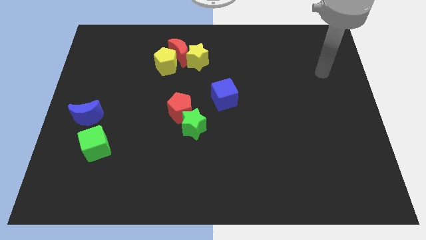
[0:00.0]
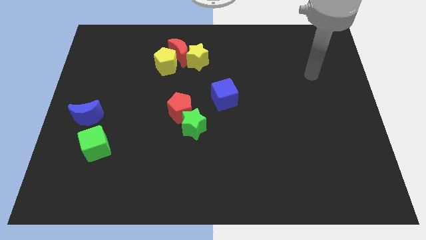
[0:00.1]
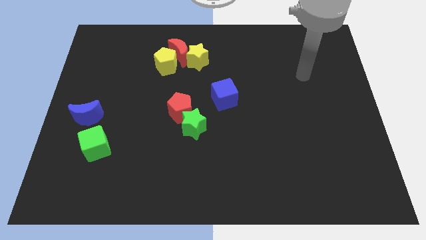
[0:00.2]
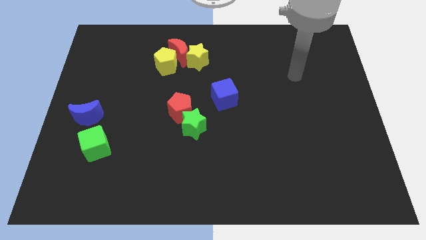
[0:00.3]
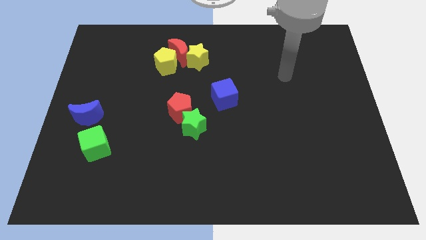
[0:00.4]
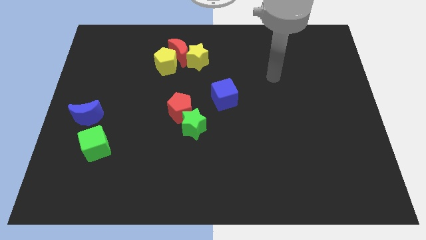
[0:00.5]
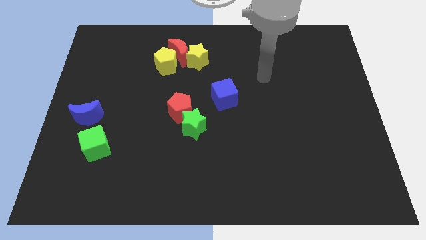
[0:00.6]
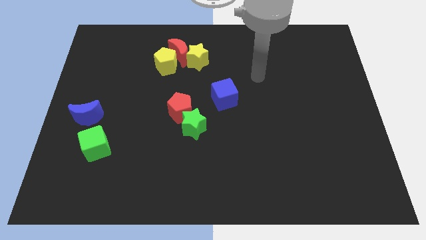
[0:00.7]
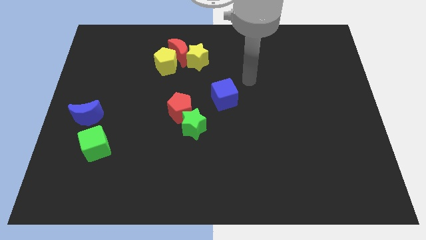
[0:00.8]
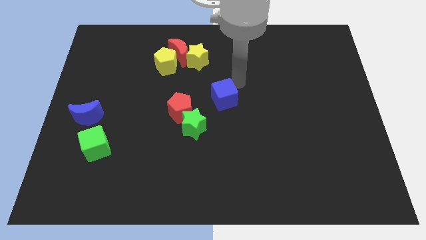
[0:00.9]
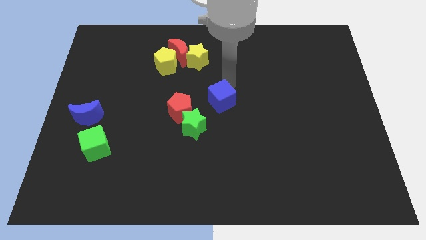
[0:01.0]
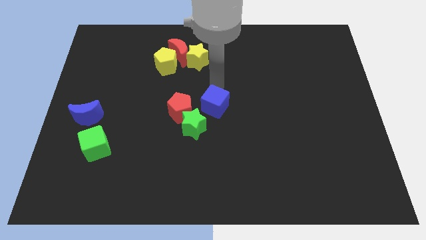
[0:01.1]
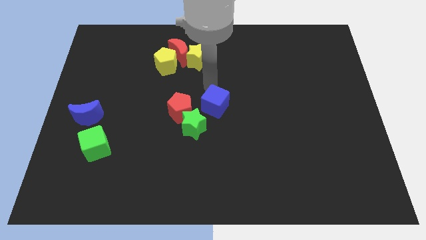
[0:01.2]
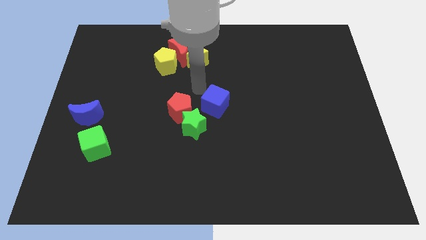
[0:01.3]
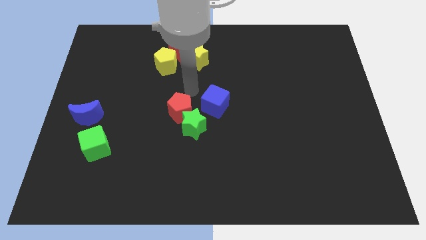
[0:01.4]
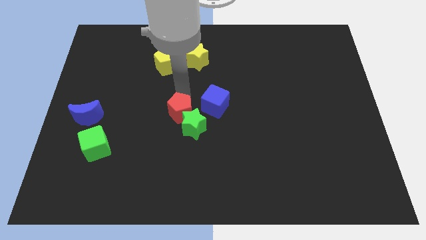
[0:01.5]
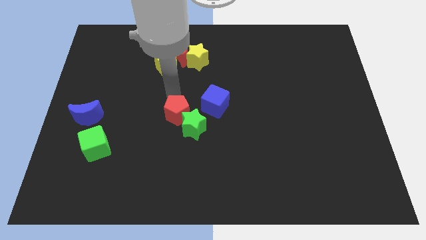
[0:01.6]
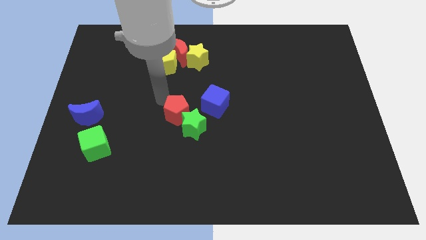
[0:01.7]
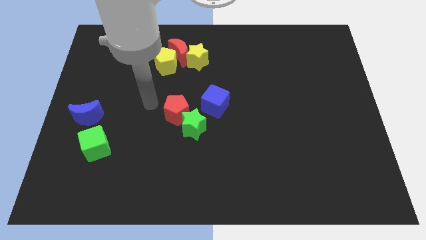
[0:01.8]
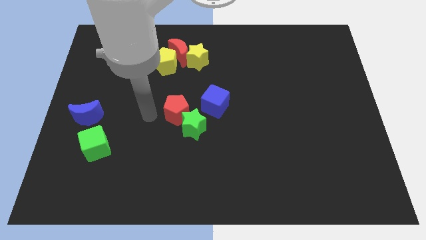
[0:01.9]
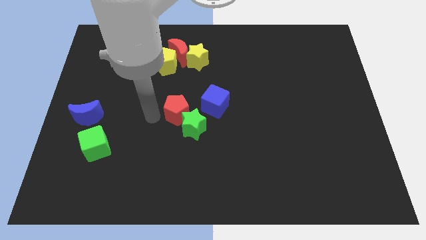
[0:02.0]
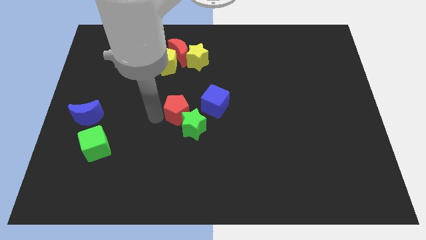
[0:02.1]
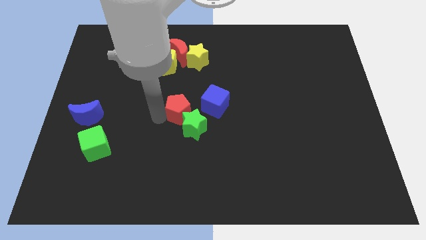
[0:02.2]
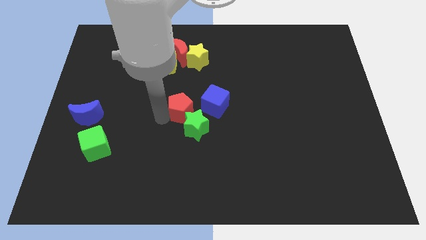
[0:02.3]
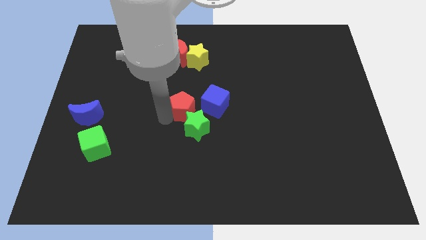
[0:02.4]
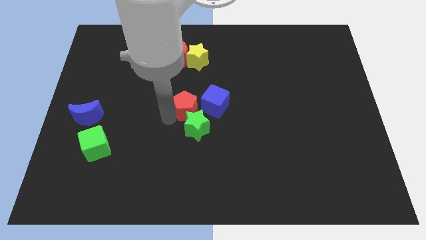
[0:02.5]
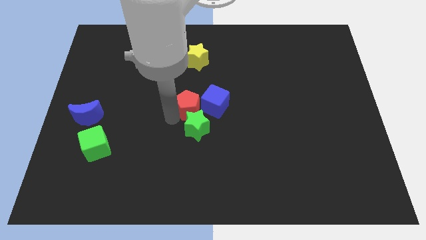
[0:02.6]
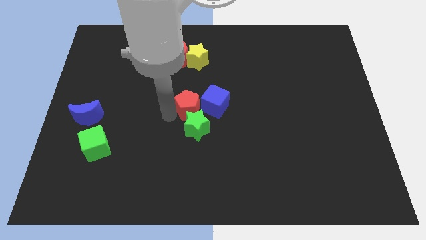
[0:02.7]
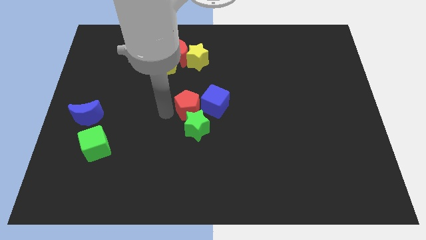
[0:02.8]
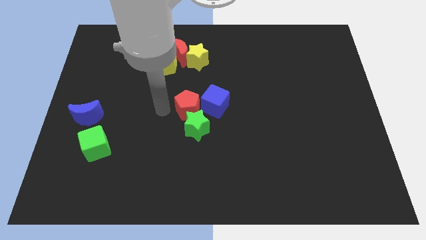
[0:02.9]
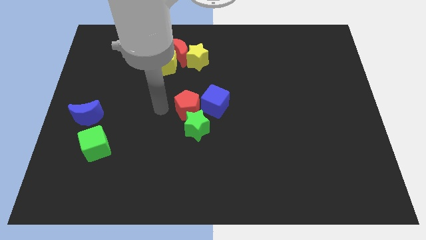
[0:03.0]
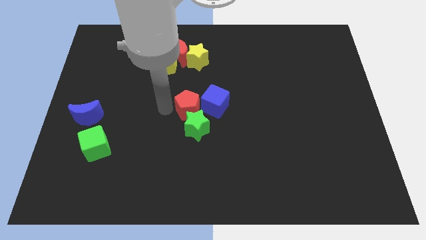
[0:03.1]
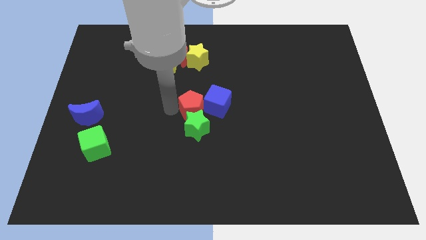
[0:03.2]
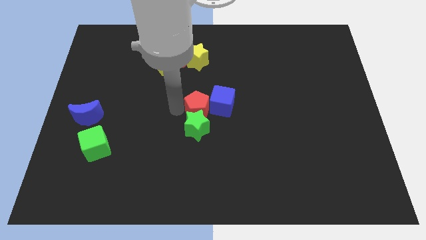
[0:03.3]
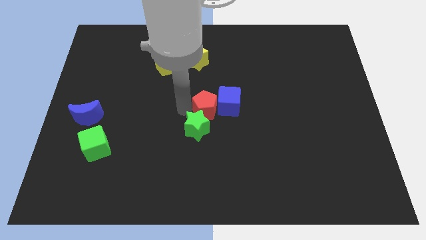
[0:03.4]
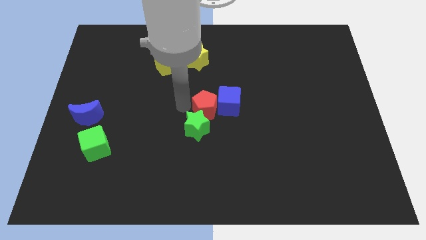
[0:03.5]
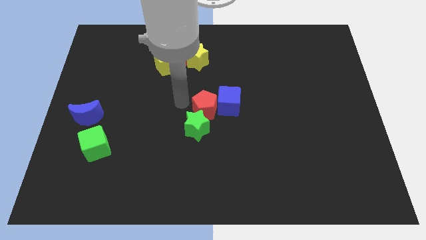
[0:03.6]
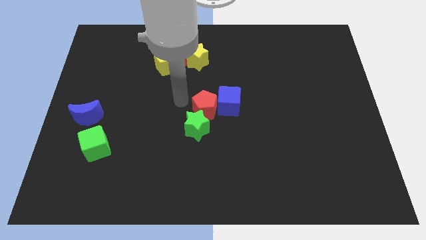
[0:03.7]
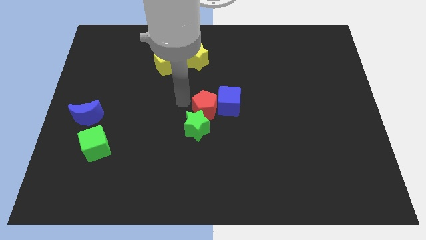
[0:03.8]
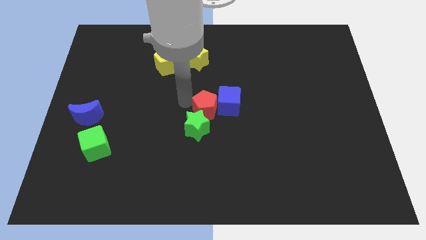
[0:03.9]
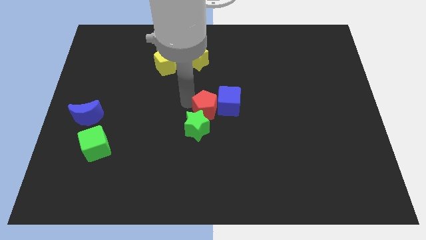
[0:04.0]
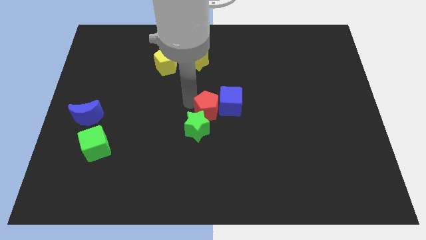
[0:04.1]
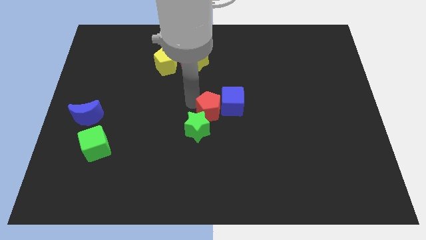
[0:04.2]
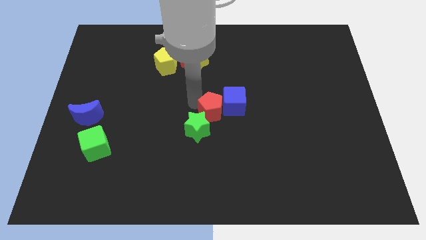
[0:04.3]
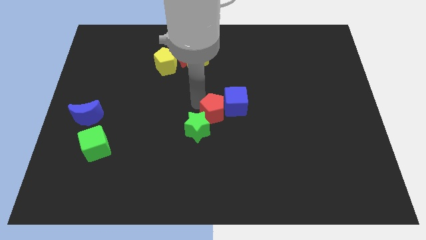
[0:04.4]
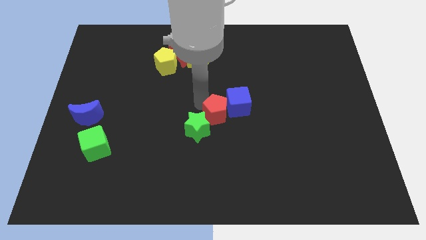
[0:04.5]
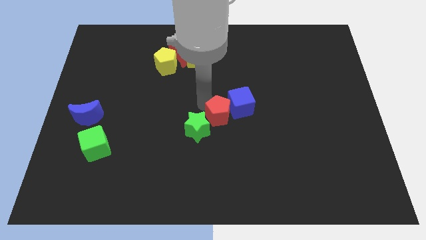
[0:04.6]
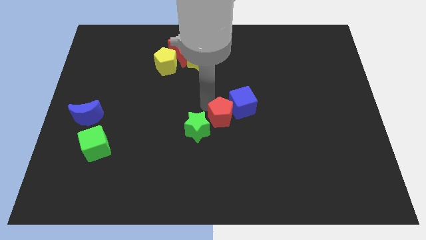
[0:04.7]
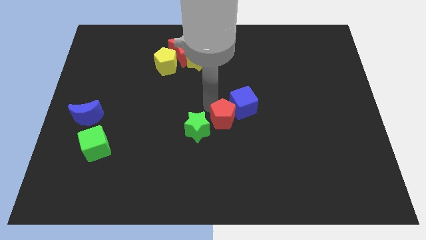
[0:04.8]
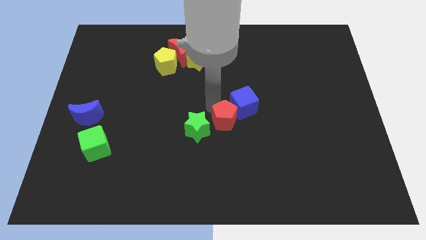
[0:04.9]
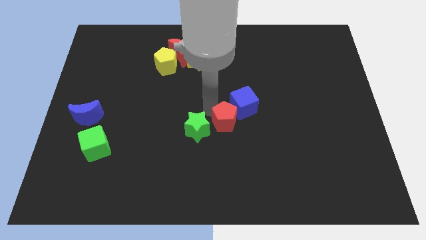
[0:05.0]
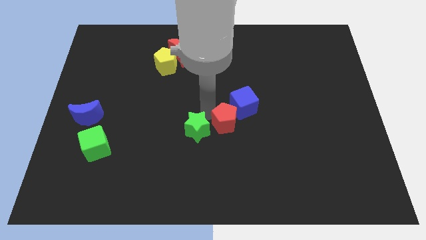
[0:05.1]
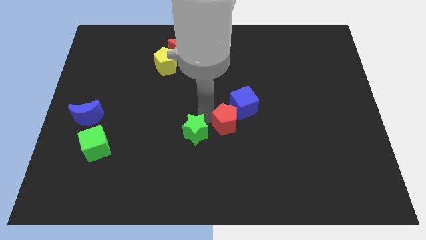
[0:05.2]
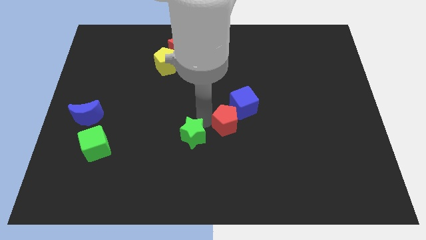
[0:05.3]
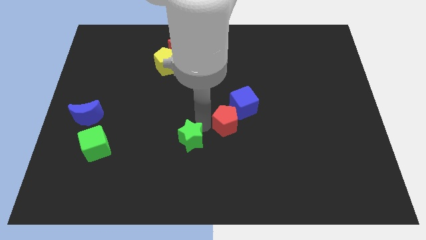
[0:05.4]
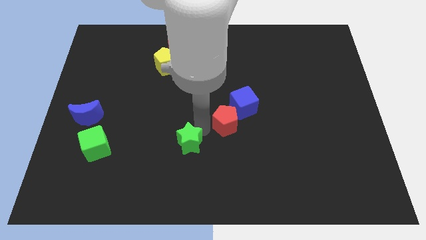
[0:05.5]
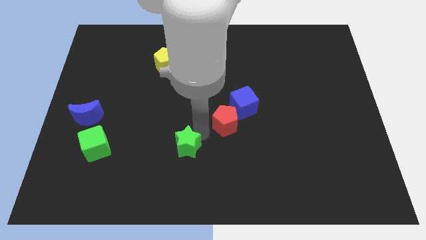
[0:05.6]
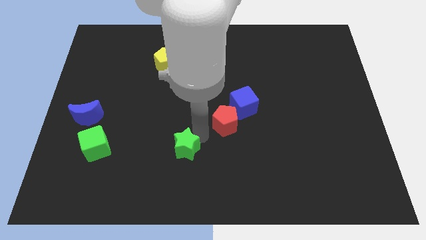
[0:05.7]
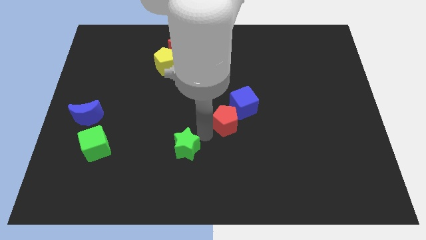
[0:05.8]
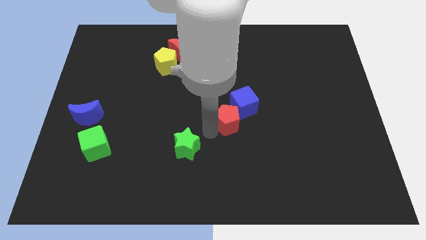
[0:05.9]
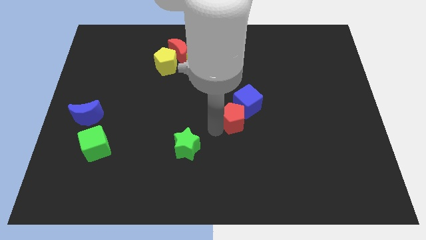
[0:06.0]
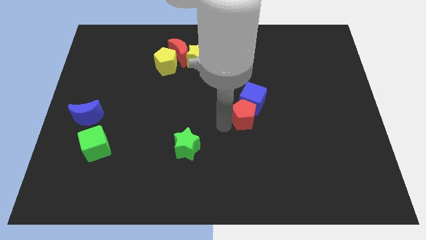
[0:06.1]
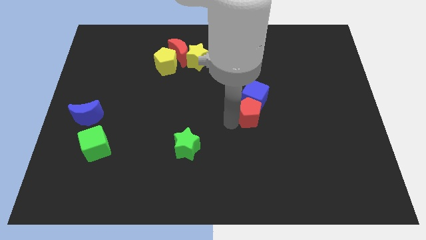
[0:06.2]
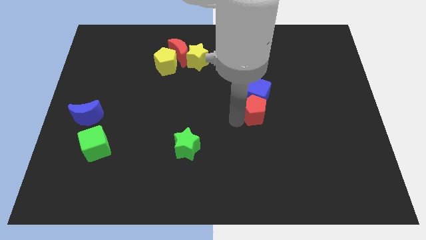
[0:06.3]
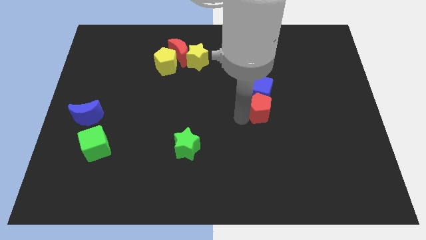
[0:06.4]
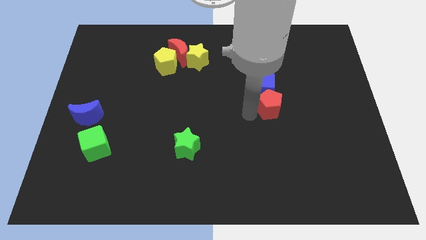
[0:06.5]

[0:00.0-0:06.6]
move the red pentagon to the right

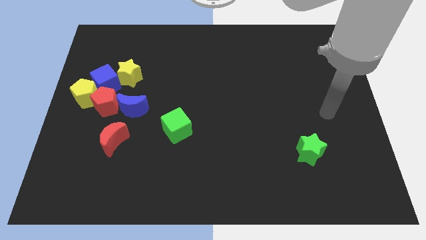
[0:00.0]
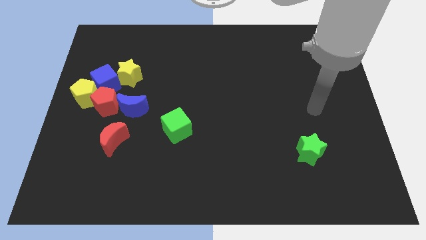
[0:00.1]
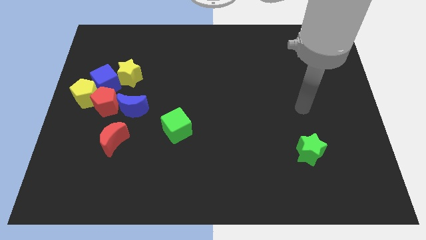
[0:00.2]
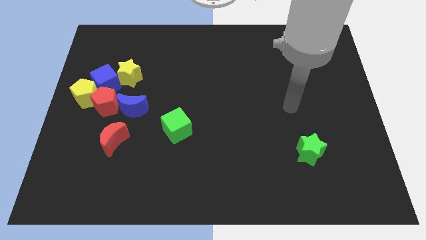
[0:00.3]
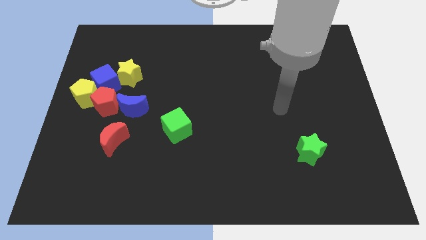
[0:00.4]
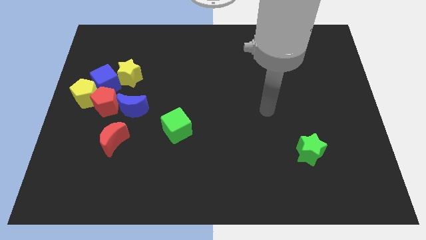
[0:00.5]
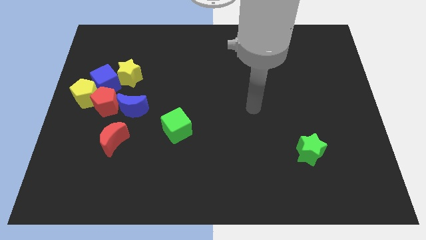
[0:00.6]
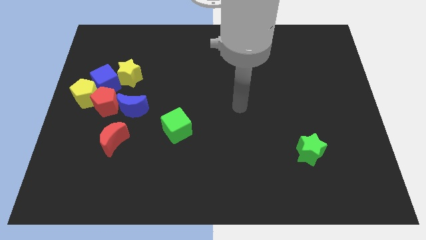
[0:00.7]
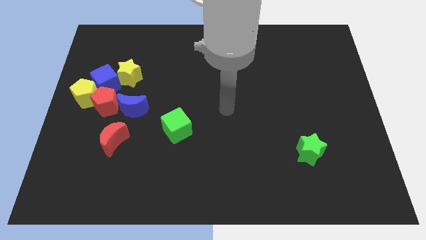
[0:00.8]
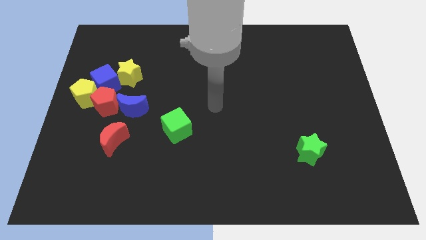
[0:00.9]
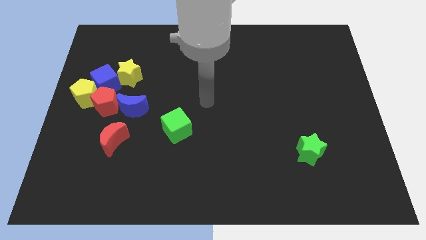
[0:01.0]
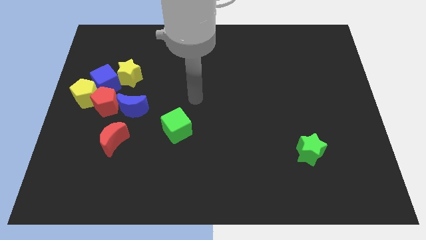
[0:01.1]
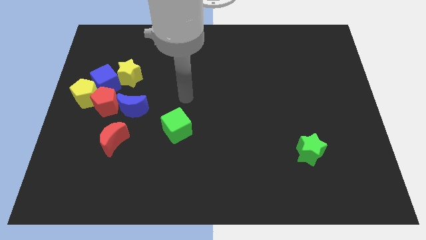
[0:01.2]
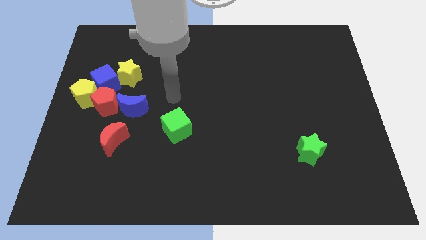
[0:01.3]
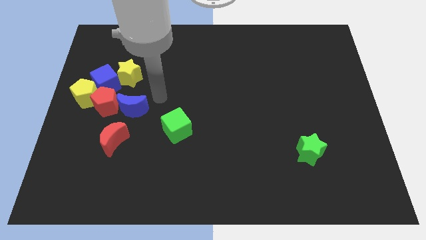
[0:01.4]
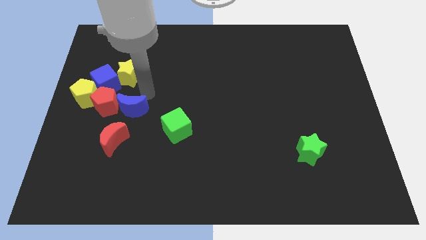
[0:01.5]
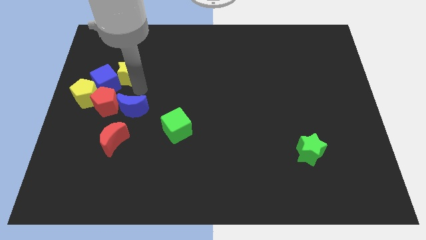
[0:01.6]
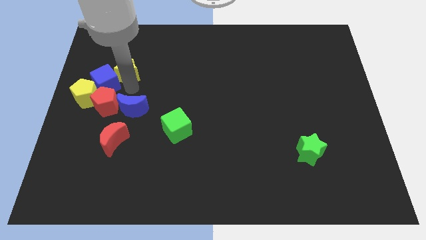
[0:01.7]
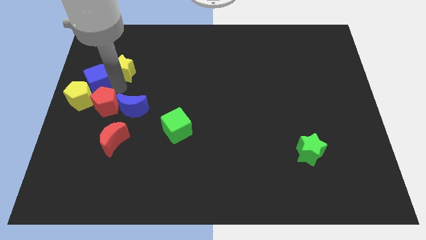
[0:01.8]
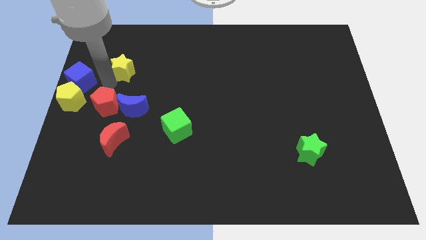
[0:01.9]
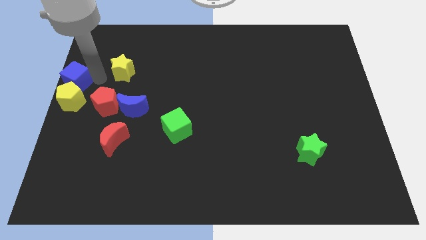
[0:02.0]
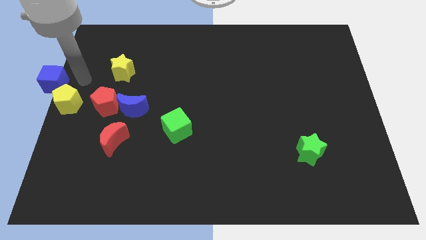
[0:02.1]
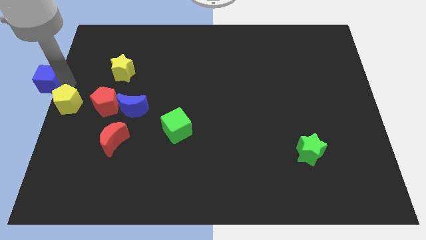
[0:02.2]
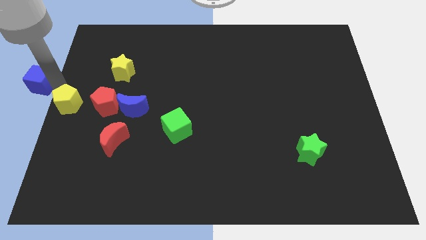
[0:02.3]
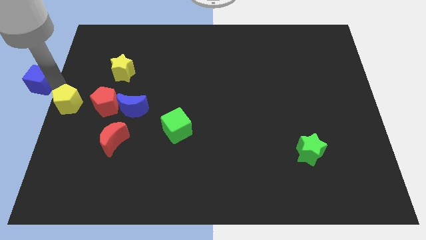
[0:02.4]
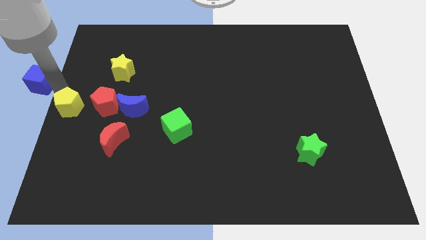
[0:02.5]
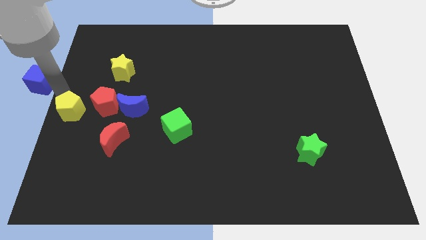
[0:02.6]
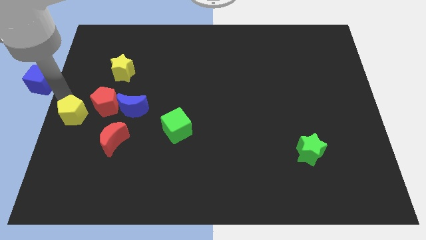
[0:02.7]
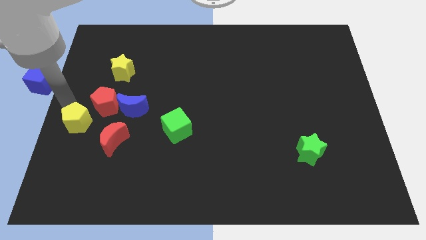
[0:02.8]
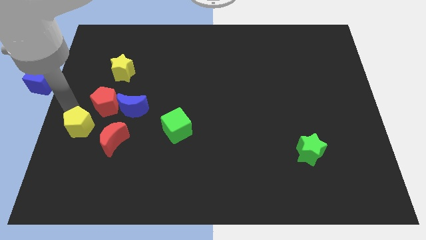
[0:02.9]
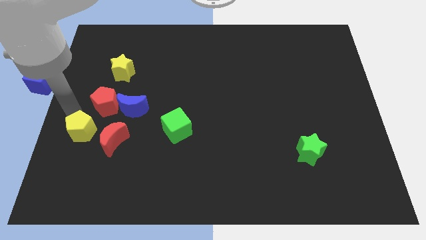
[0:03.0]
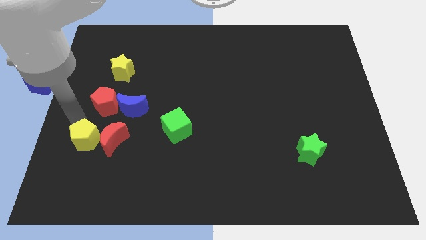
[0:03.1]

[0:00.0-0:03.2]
move the yellow pentagon down and right diagonally somewhat
